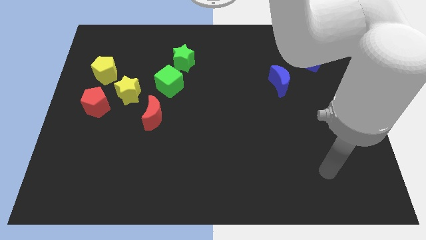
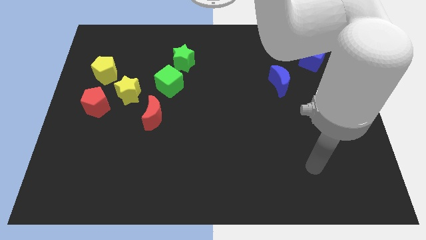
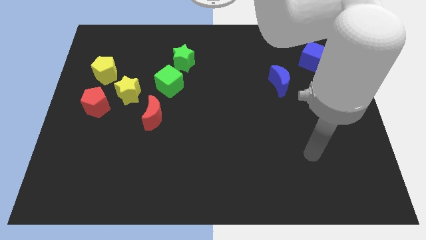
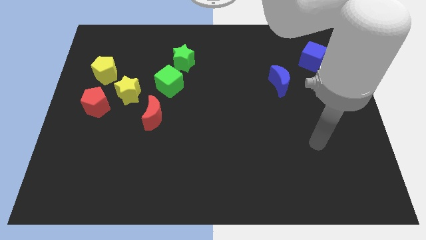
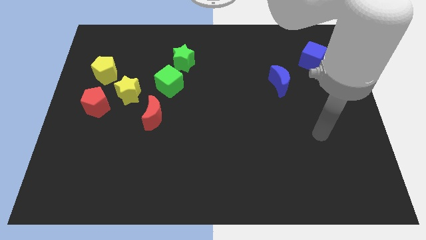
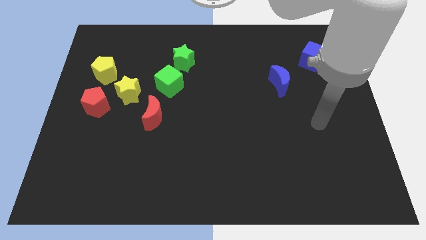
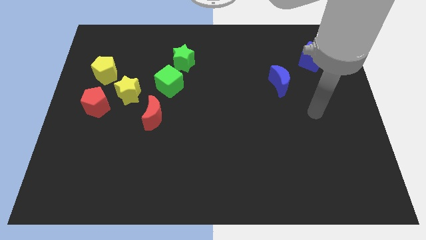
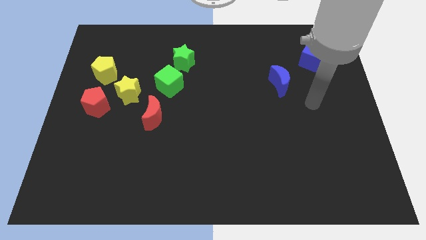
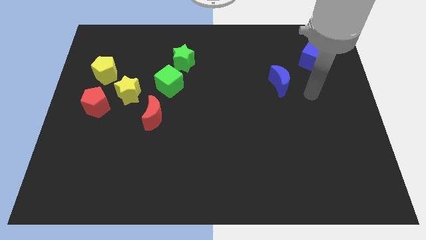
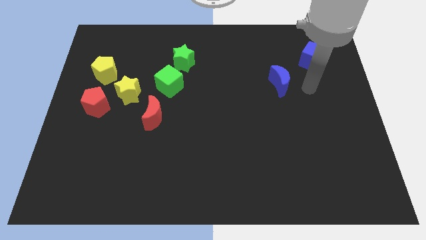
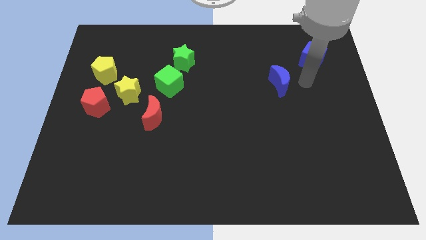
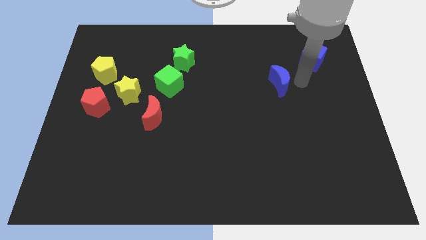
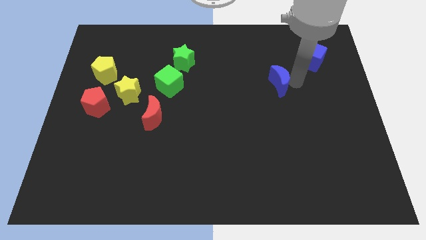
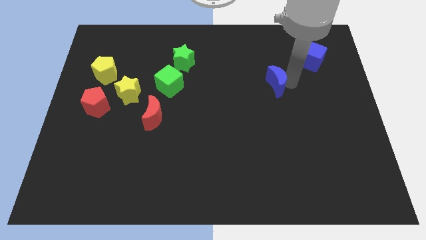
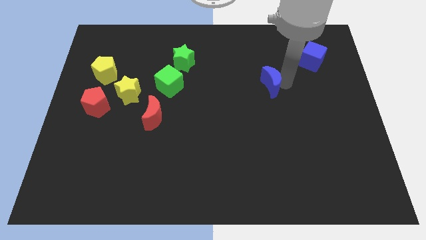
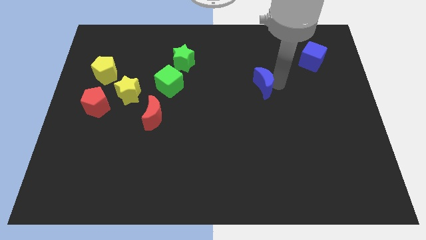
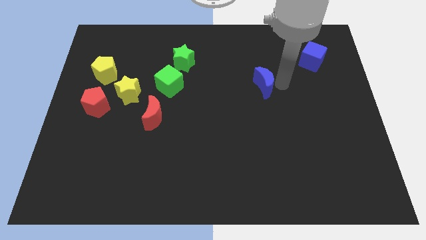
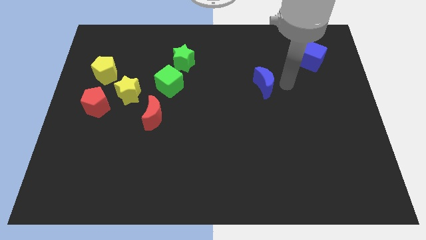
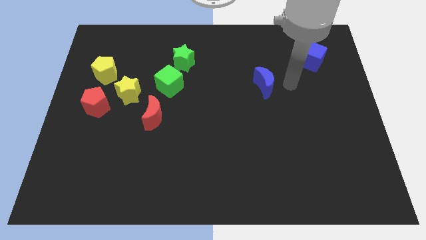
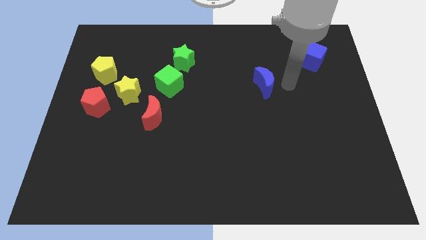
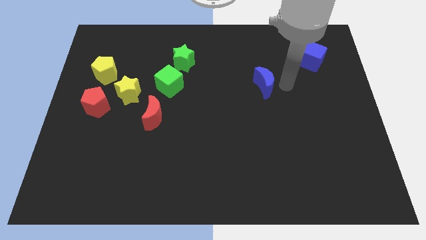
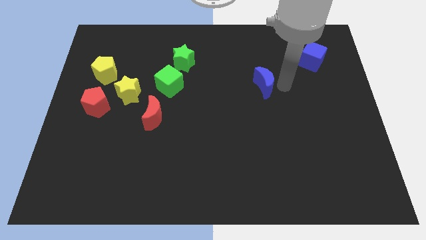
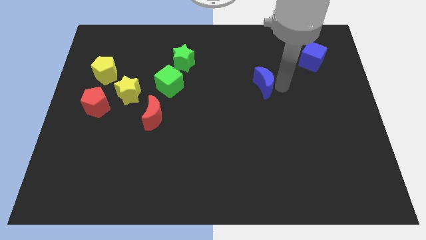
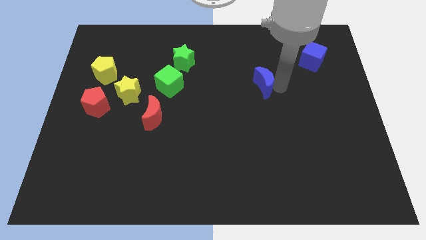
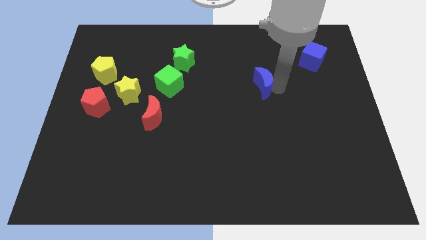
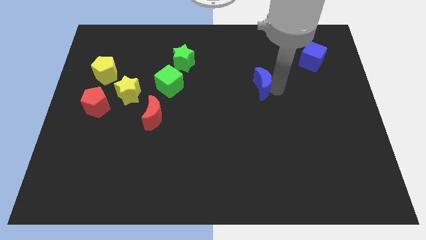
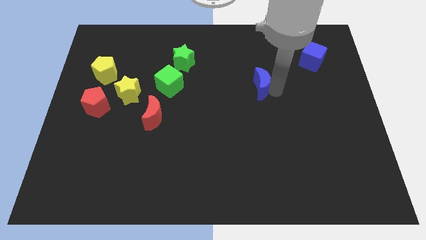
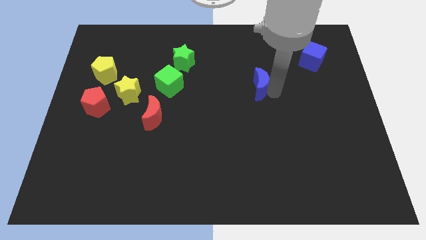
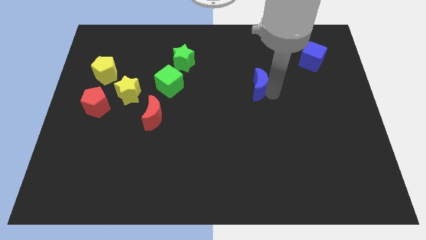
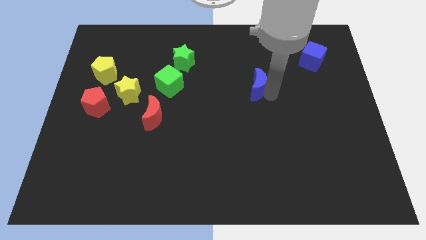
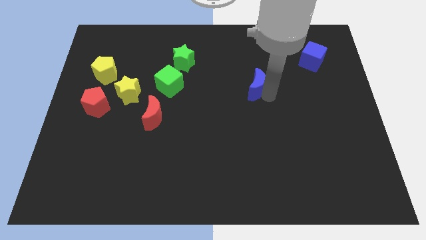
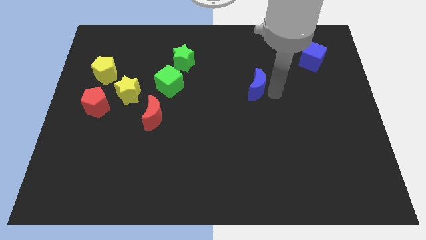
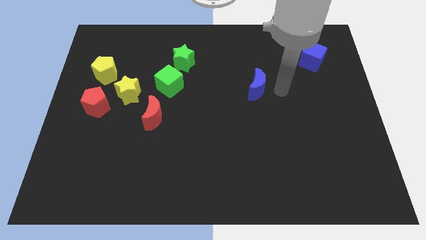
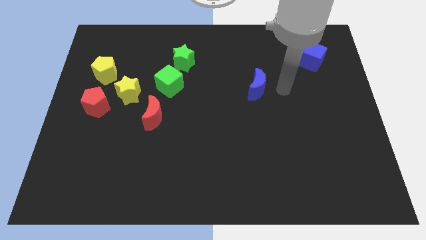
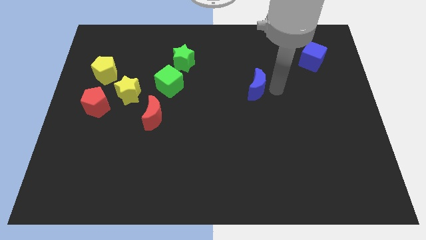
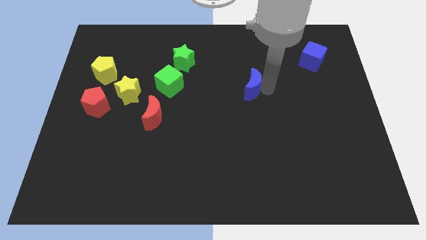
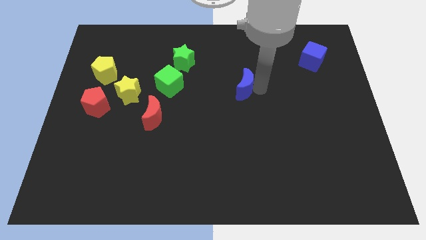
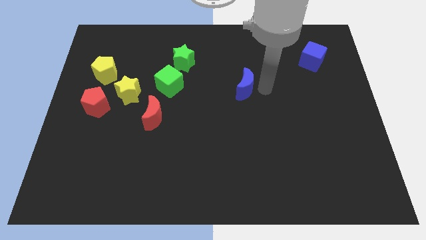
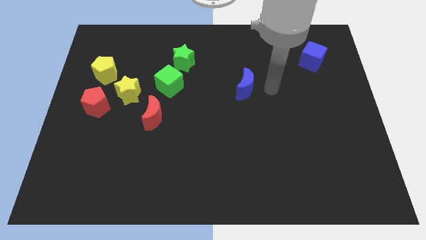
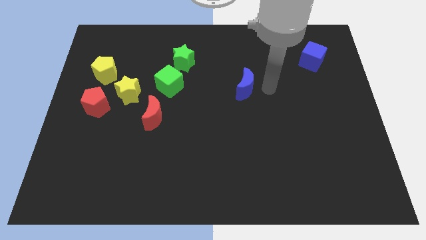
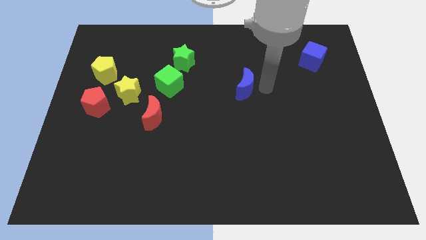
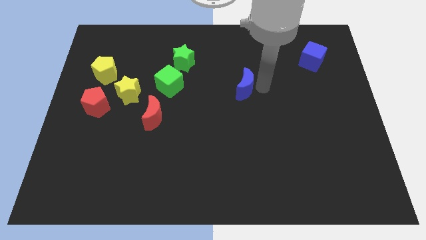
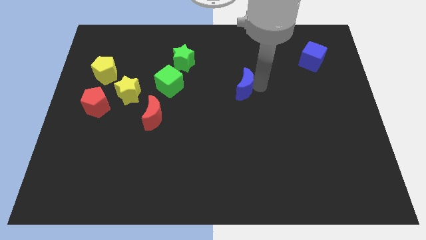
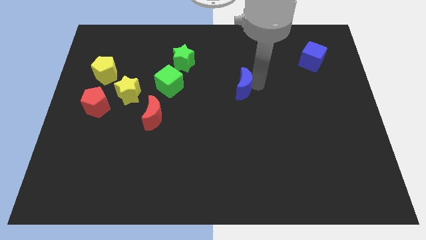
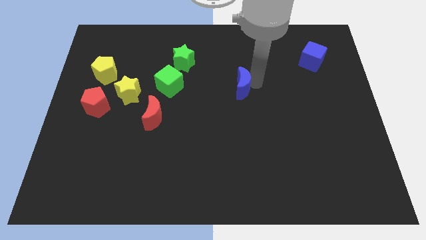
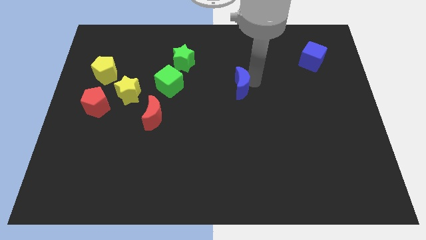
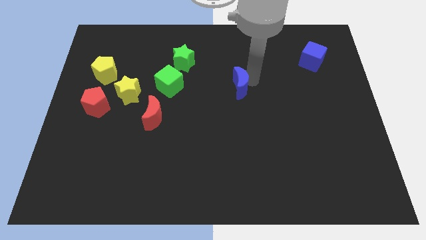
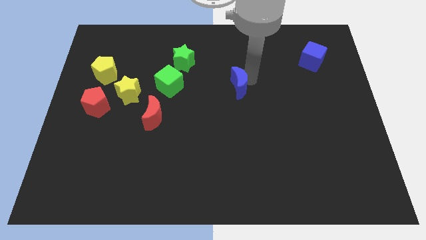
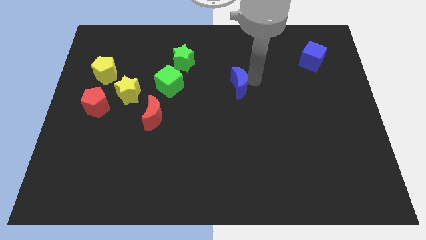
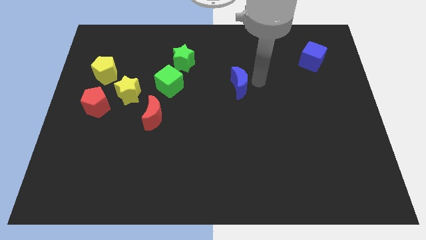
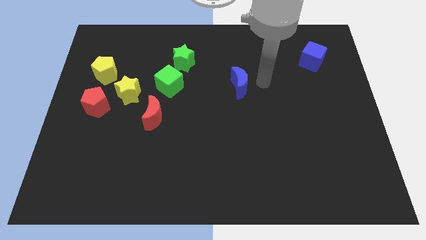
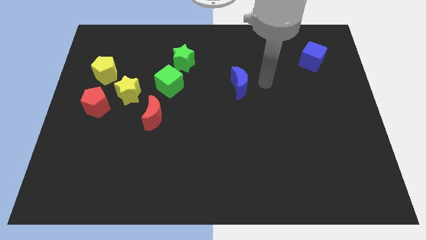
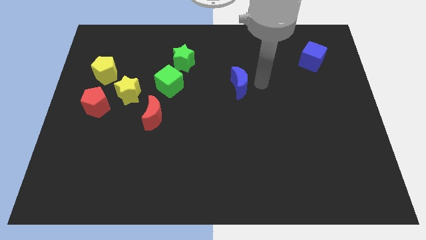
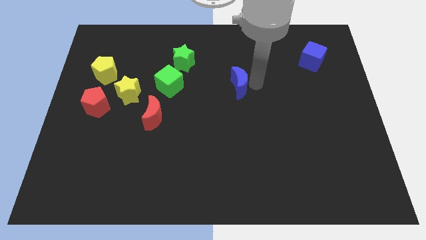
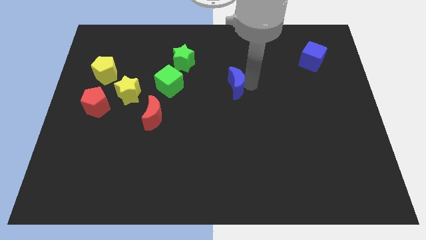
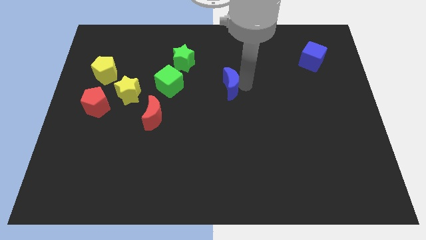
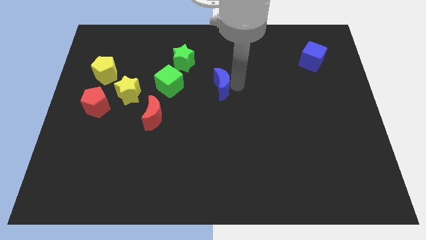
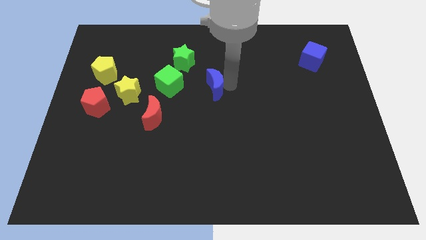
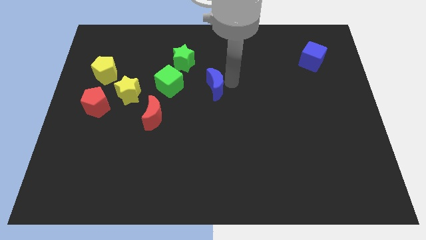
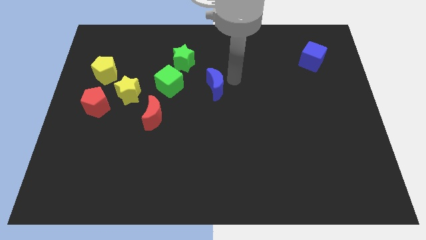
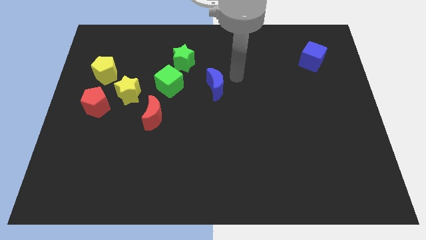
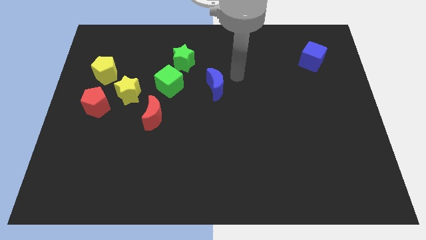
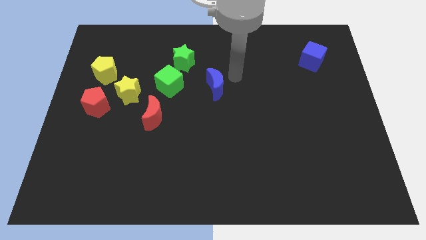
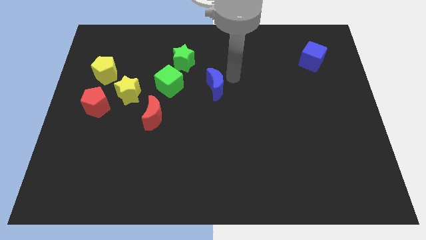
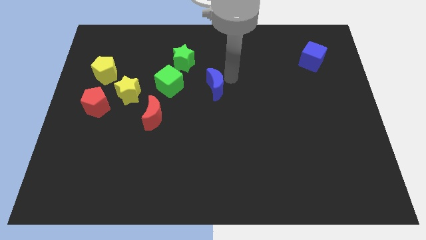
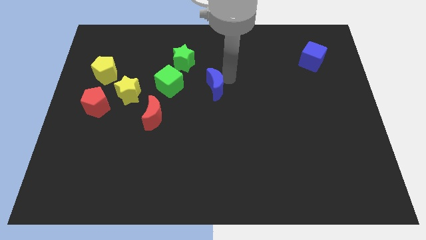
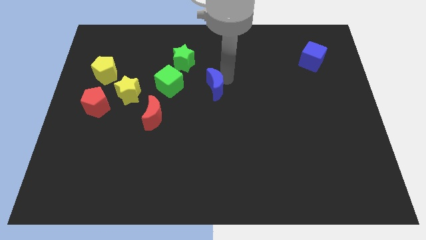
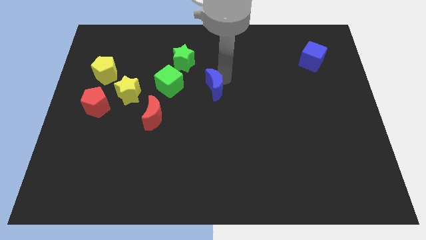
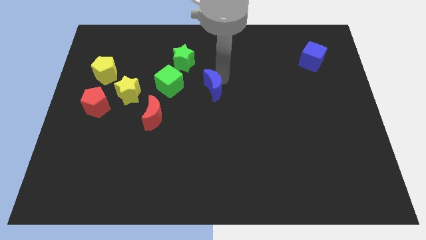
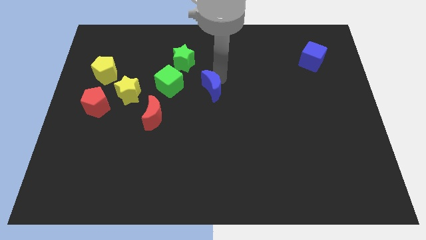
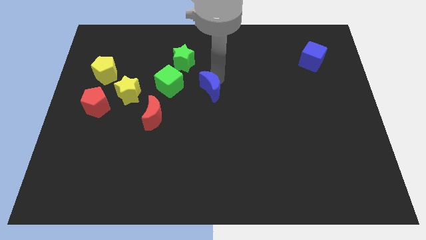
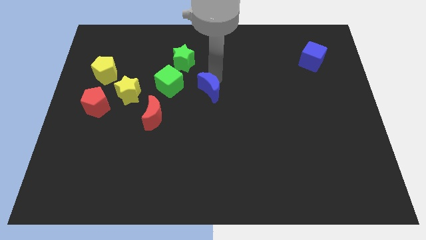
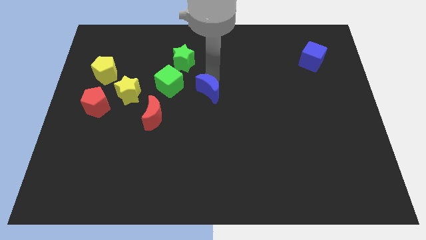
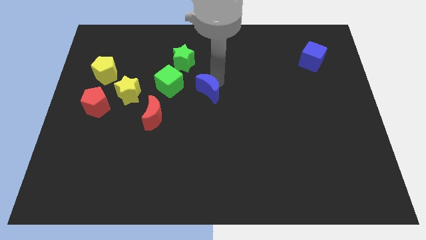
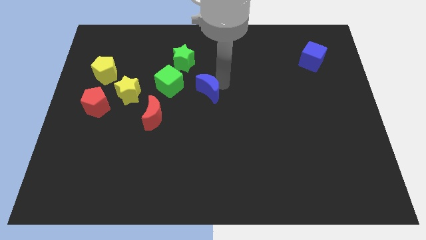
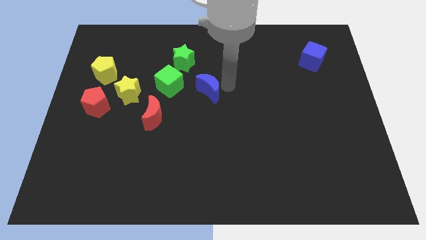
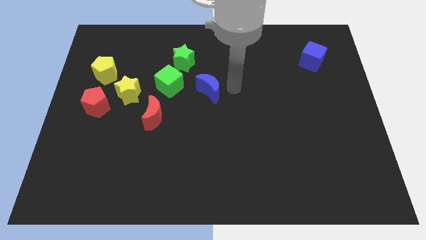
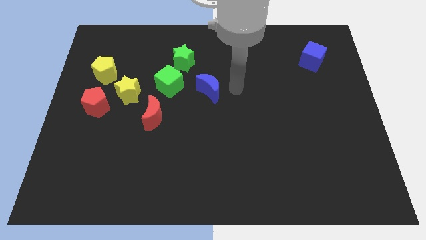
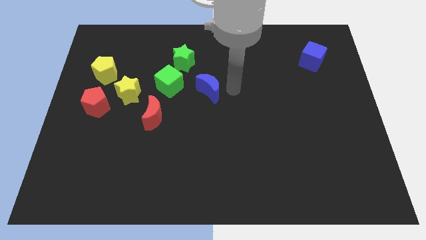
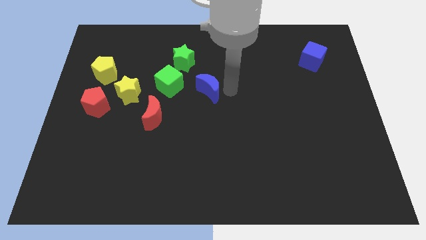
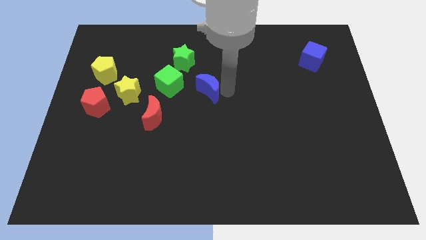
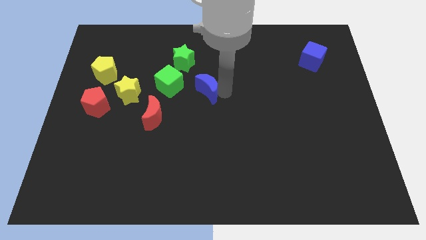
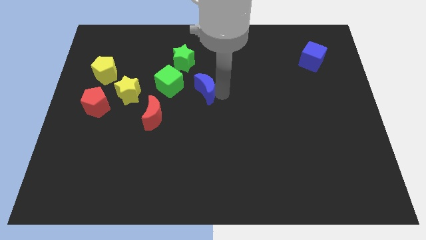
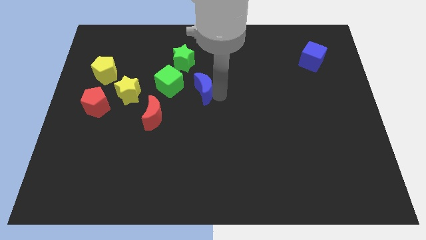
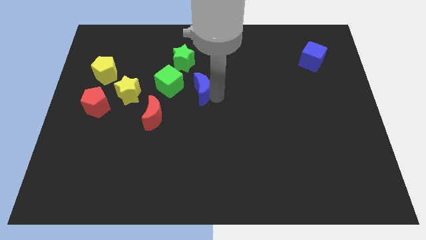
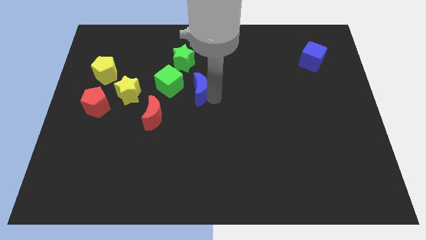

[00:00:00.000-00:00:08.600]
move the blue moon below the green star
